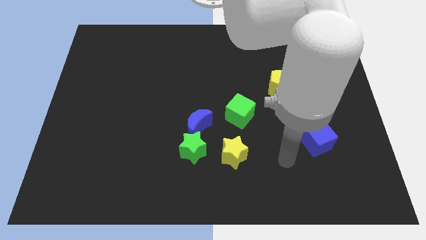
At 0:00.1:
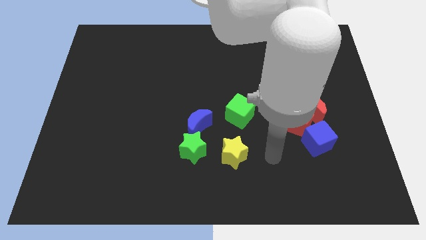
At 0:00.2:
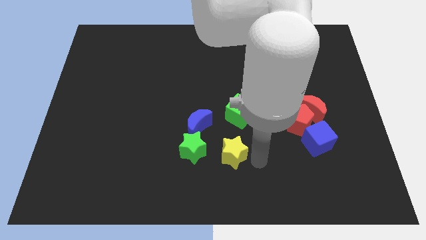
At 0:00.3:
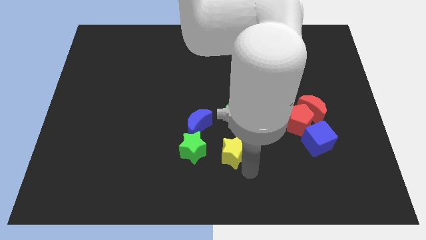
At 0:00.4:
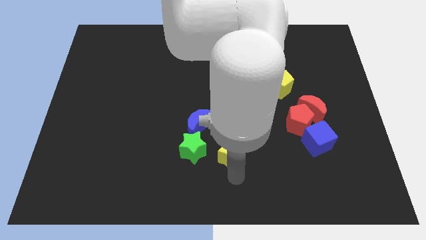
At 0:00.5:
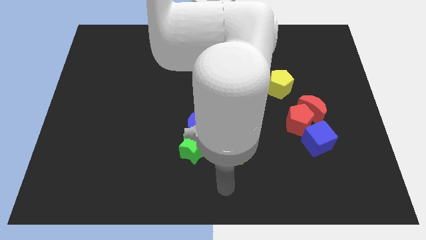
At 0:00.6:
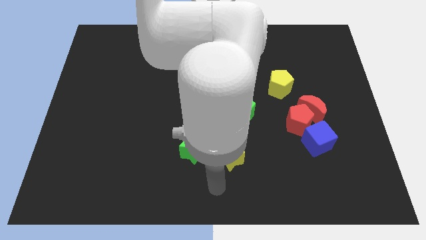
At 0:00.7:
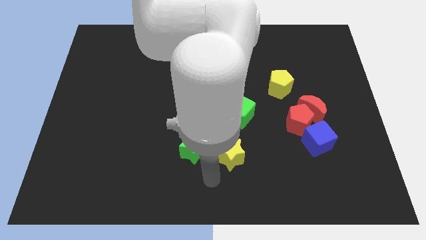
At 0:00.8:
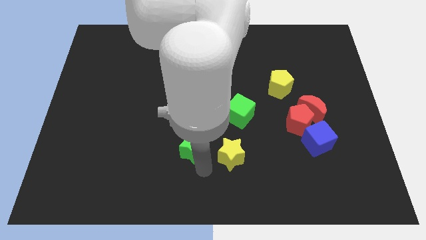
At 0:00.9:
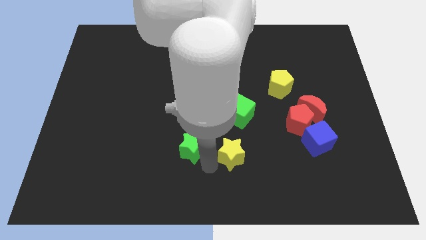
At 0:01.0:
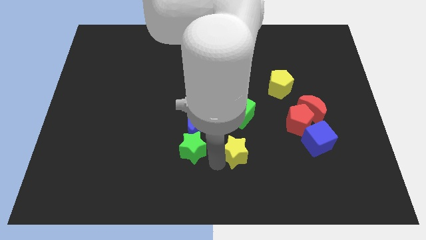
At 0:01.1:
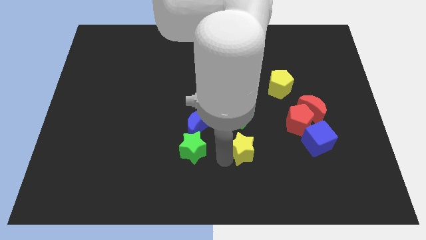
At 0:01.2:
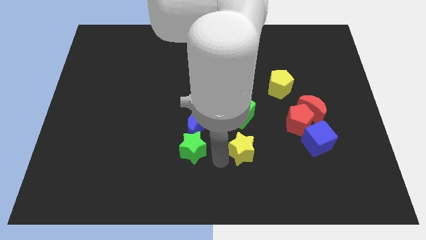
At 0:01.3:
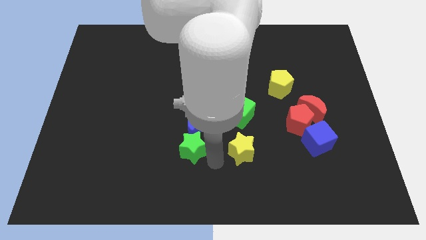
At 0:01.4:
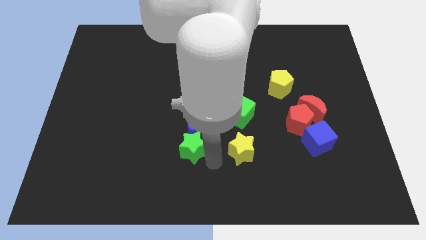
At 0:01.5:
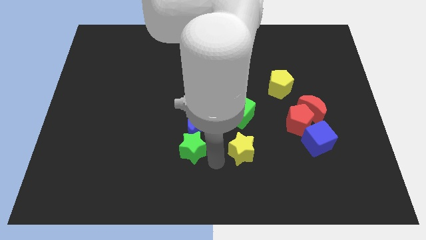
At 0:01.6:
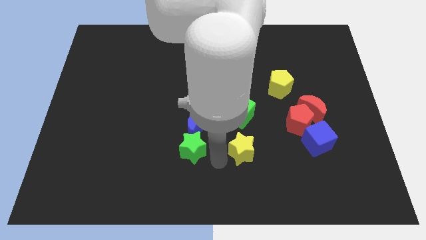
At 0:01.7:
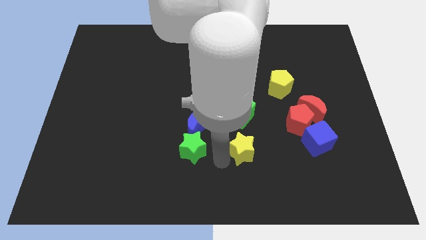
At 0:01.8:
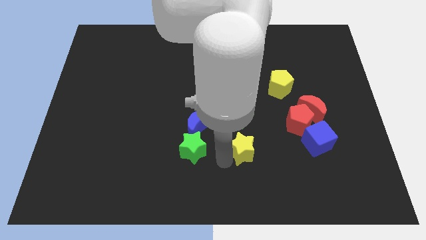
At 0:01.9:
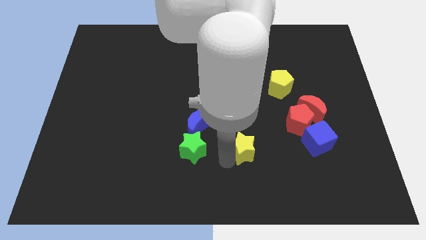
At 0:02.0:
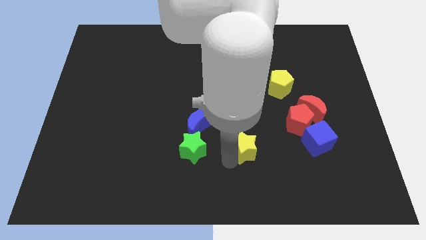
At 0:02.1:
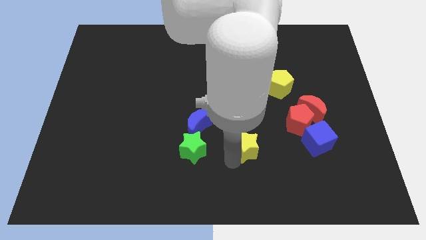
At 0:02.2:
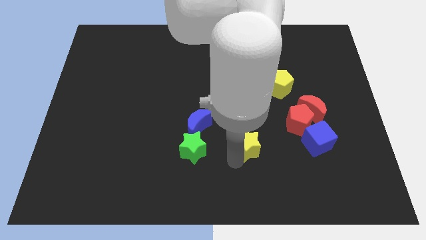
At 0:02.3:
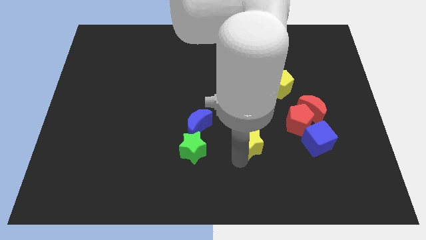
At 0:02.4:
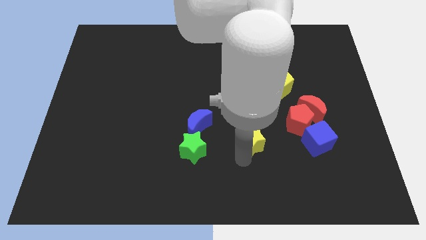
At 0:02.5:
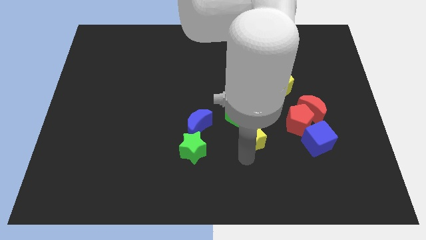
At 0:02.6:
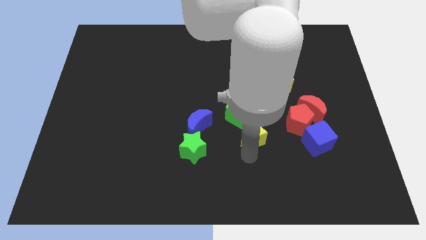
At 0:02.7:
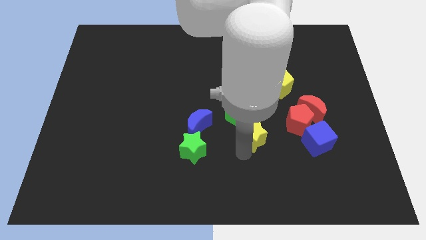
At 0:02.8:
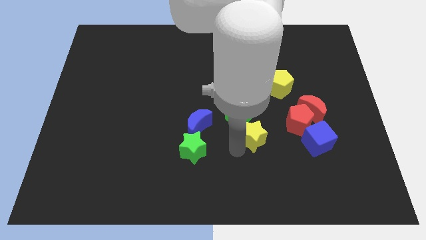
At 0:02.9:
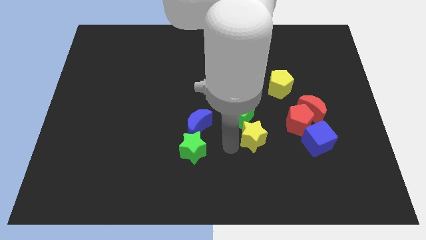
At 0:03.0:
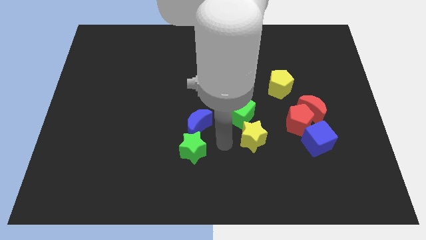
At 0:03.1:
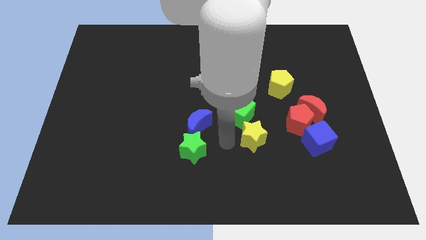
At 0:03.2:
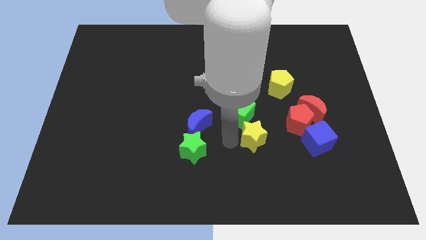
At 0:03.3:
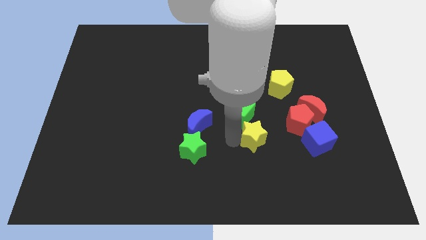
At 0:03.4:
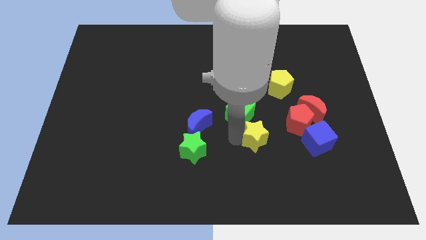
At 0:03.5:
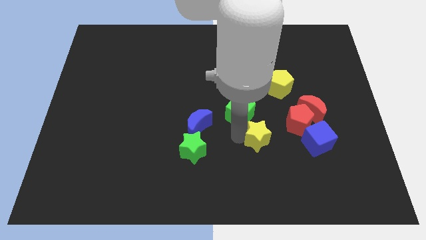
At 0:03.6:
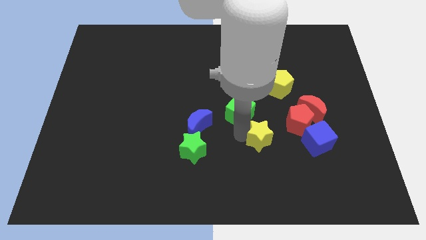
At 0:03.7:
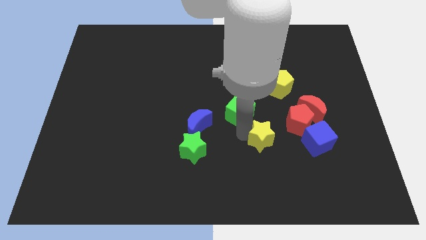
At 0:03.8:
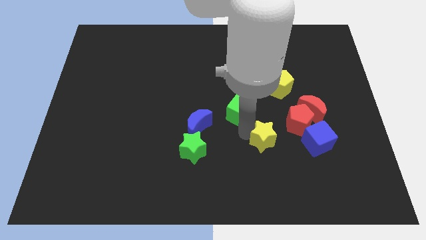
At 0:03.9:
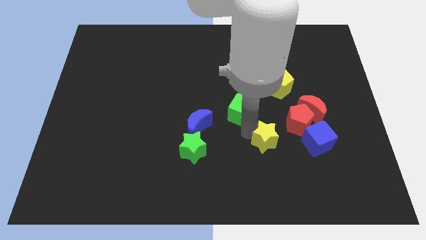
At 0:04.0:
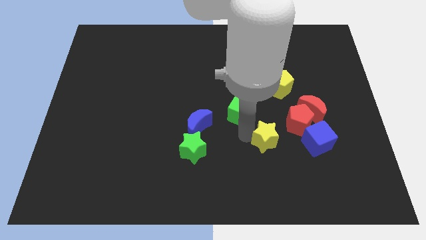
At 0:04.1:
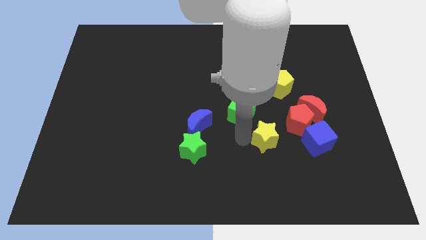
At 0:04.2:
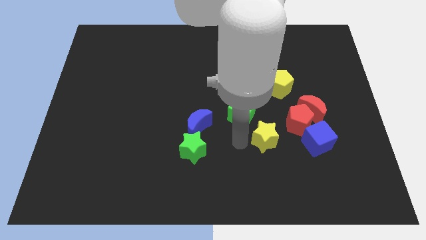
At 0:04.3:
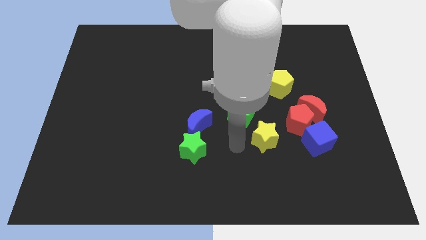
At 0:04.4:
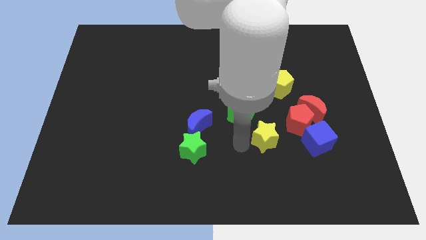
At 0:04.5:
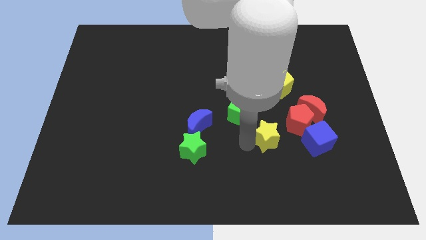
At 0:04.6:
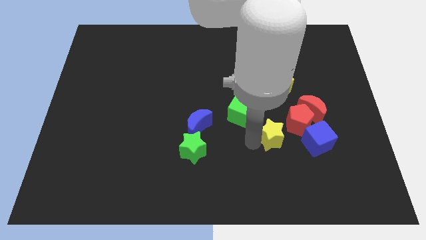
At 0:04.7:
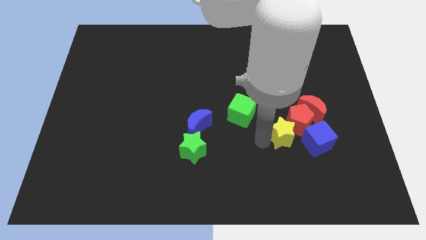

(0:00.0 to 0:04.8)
put the yellow star next to the red pentagon

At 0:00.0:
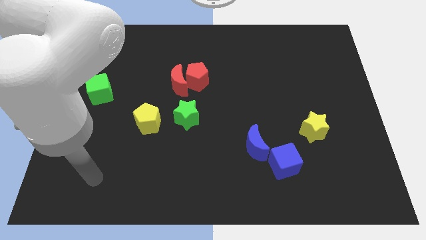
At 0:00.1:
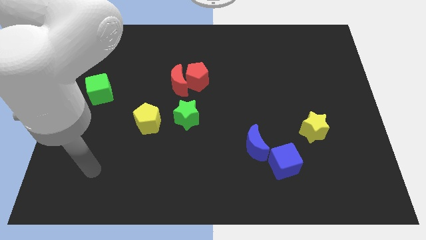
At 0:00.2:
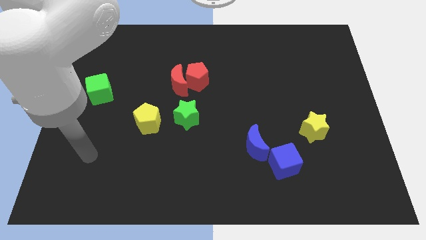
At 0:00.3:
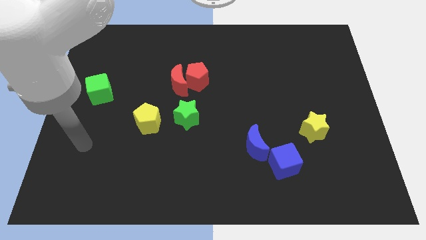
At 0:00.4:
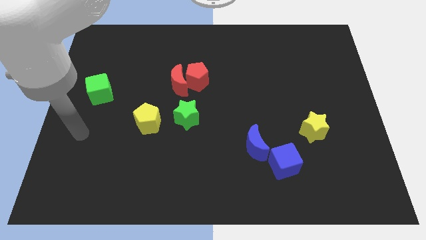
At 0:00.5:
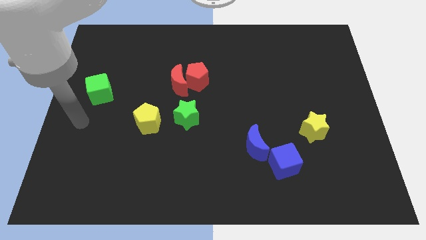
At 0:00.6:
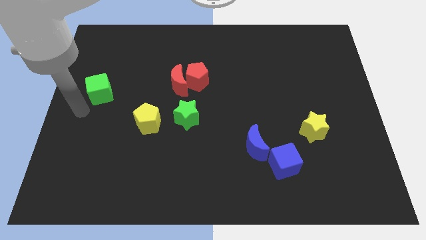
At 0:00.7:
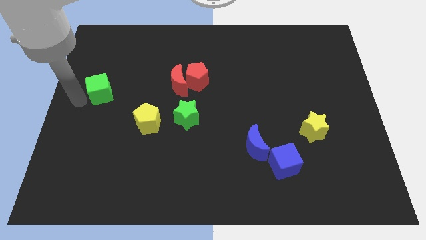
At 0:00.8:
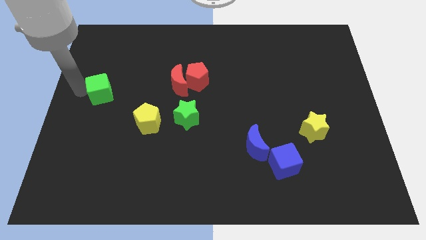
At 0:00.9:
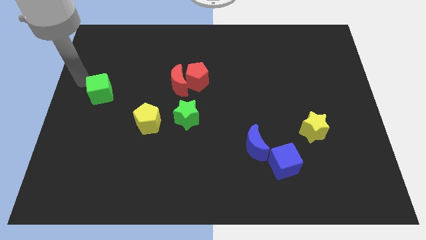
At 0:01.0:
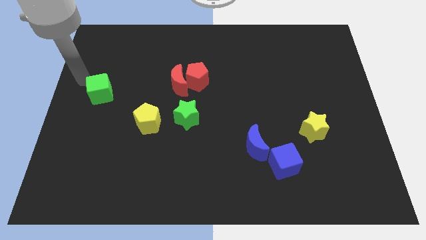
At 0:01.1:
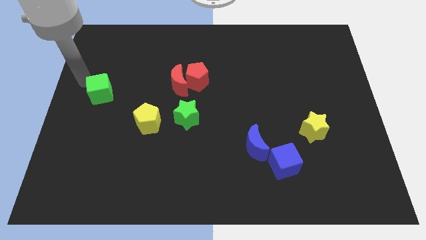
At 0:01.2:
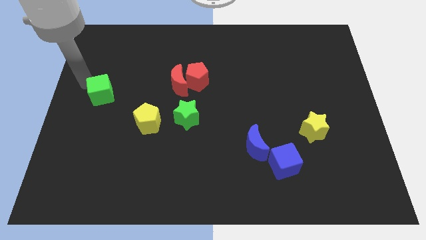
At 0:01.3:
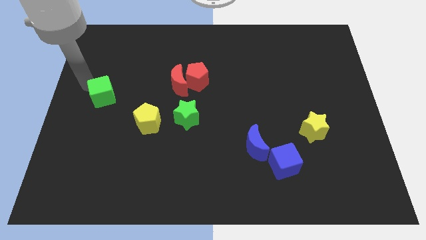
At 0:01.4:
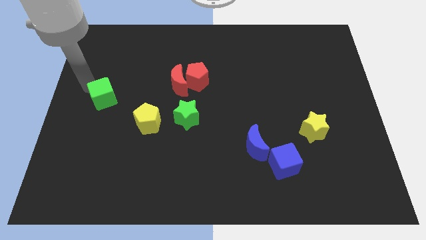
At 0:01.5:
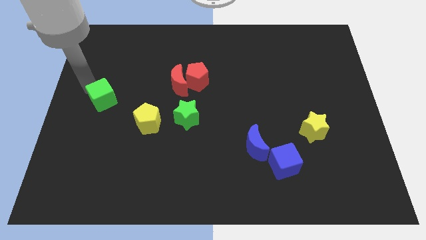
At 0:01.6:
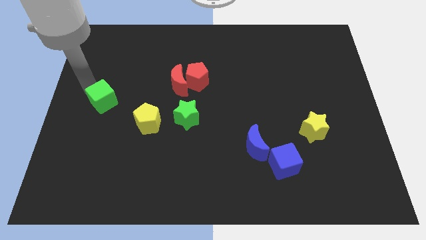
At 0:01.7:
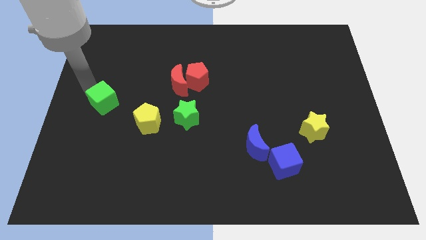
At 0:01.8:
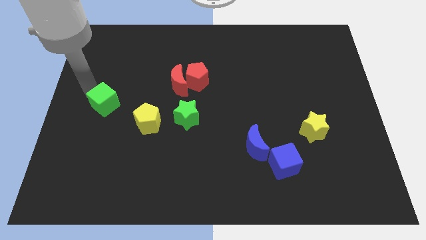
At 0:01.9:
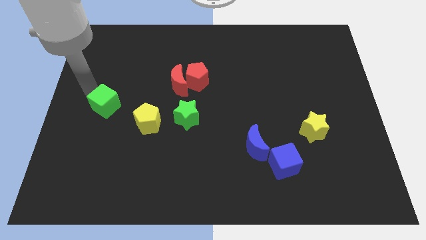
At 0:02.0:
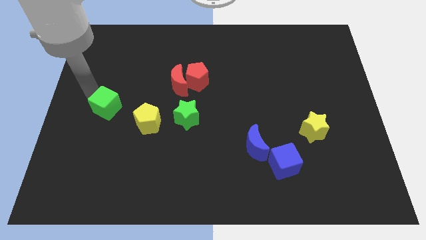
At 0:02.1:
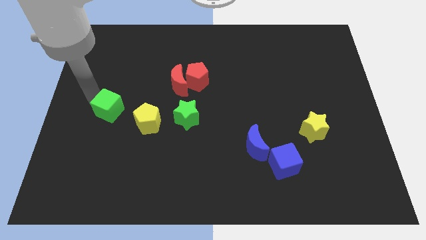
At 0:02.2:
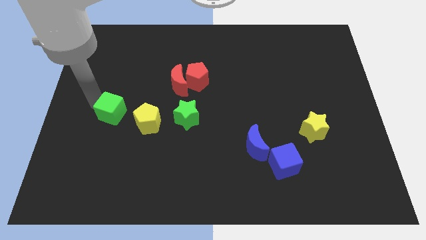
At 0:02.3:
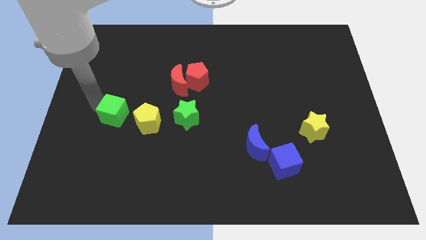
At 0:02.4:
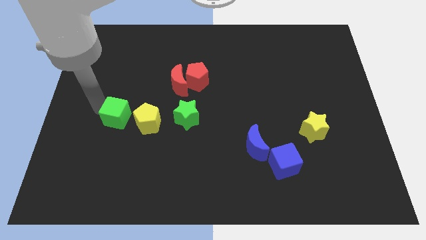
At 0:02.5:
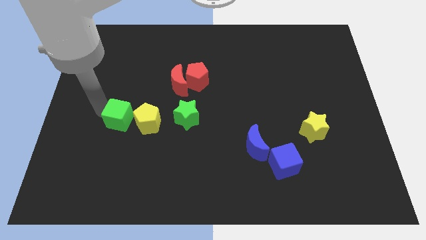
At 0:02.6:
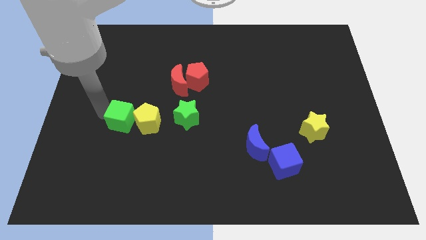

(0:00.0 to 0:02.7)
put the green cube next to the yellow pentagon

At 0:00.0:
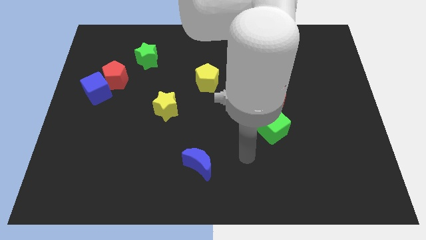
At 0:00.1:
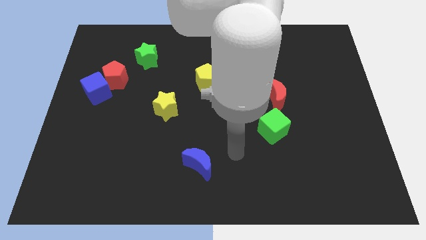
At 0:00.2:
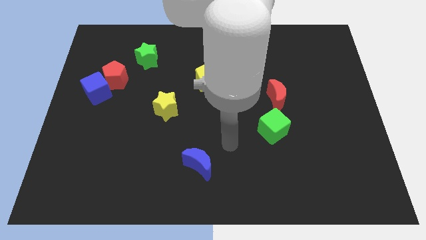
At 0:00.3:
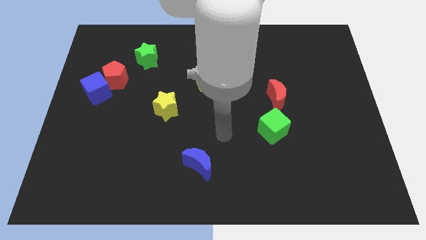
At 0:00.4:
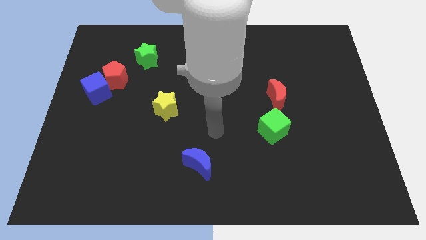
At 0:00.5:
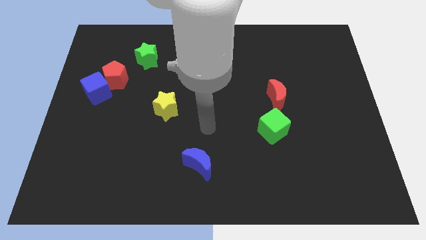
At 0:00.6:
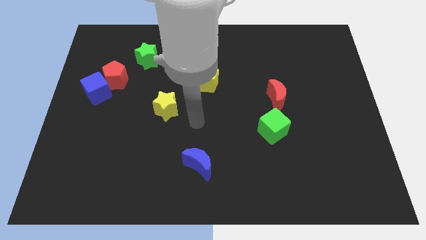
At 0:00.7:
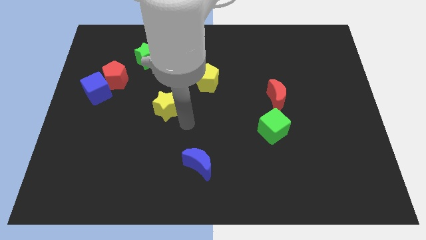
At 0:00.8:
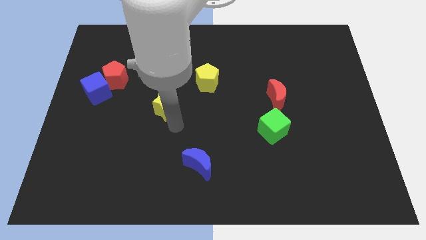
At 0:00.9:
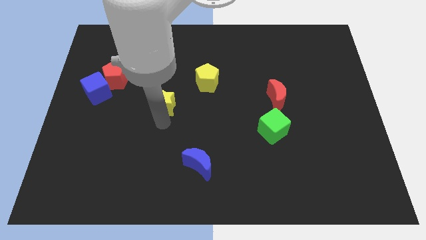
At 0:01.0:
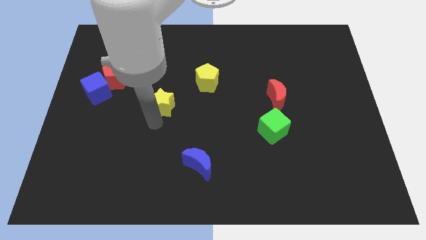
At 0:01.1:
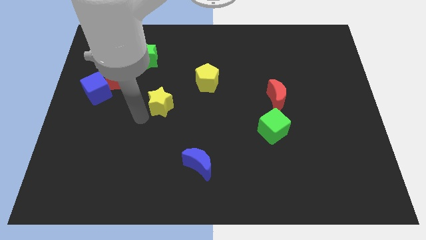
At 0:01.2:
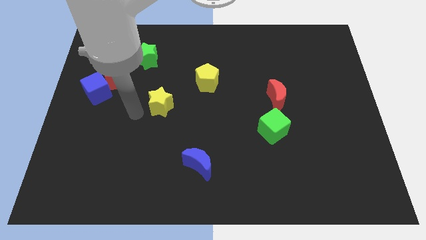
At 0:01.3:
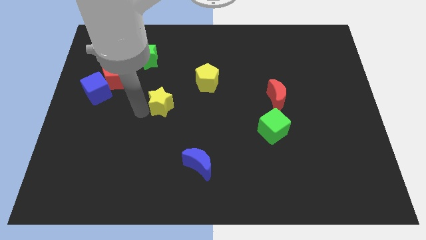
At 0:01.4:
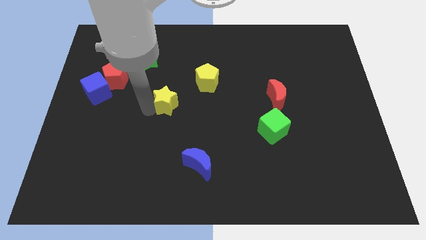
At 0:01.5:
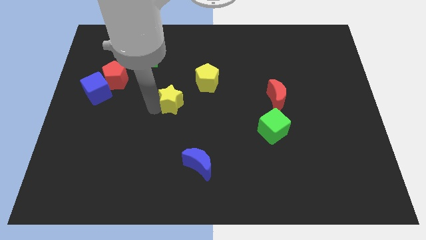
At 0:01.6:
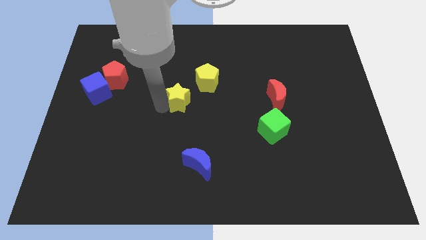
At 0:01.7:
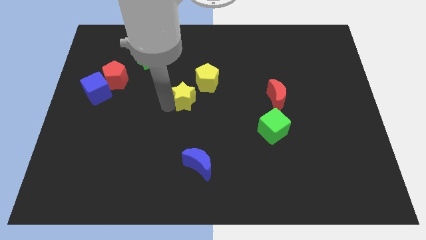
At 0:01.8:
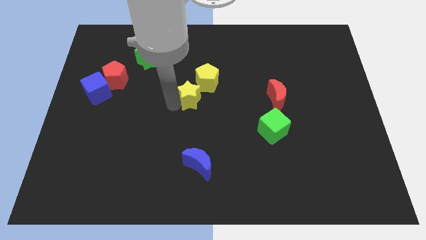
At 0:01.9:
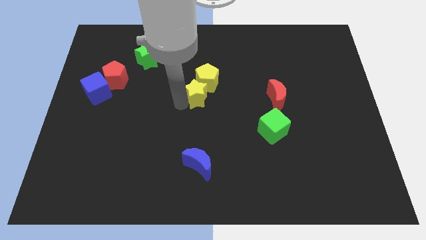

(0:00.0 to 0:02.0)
put the yellow star close to the yellow pentagon
